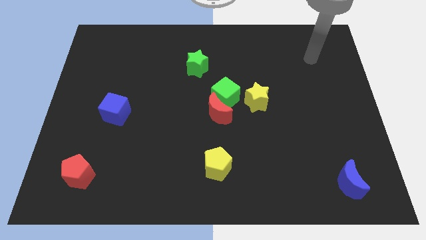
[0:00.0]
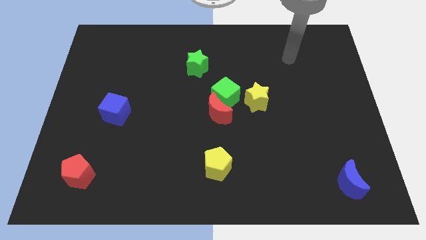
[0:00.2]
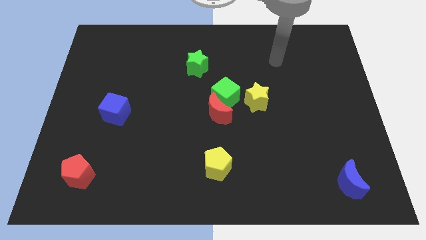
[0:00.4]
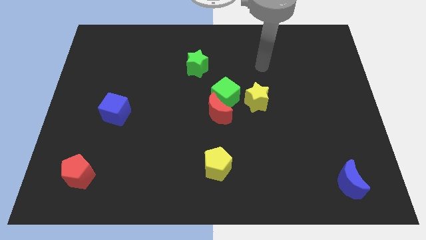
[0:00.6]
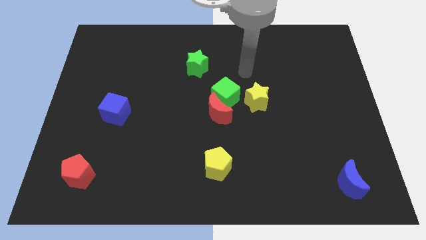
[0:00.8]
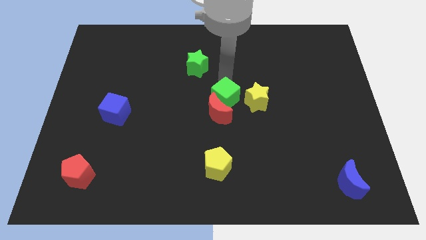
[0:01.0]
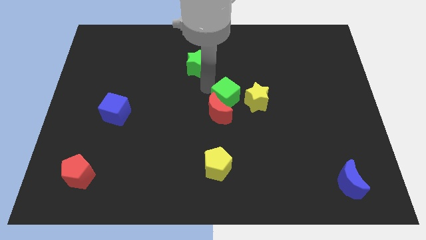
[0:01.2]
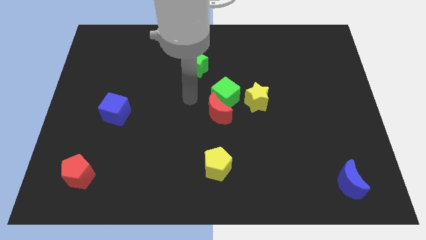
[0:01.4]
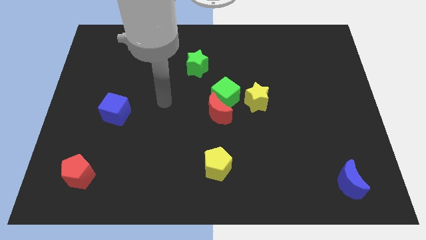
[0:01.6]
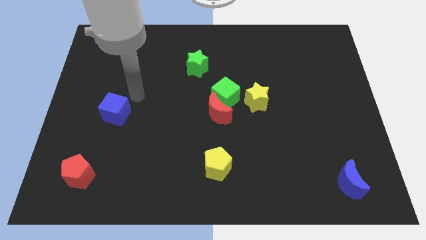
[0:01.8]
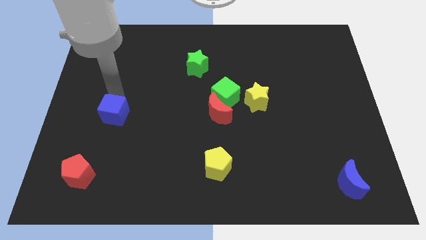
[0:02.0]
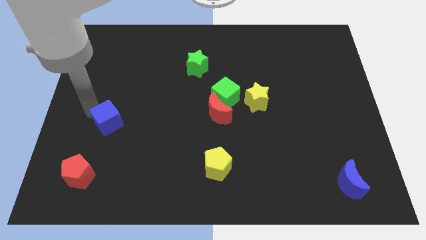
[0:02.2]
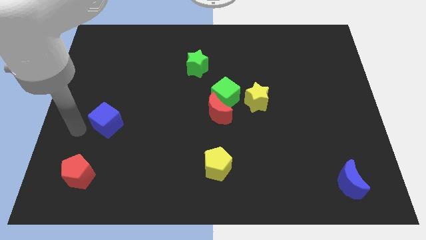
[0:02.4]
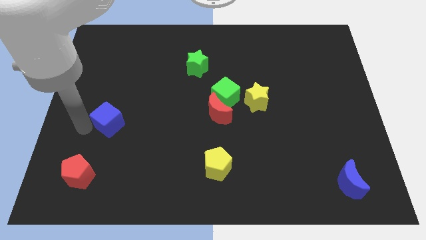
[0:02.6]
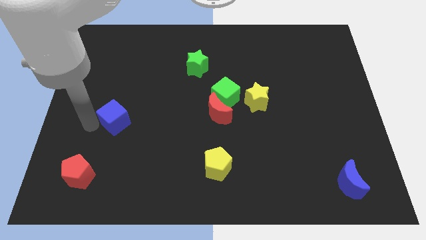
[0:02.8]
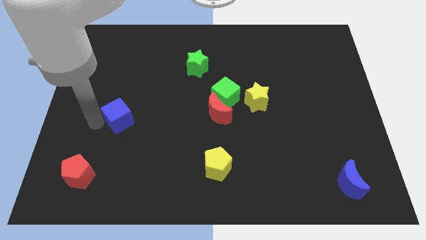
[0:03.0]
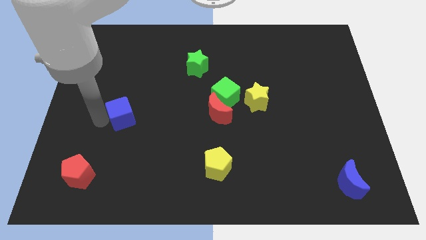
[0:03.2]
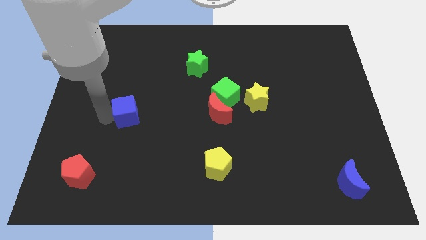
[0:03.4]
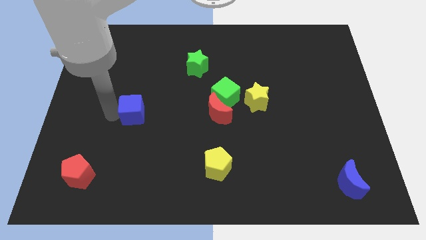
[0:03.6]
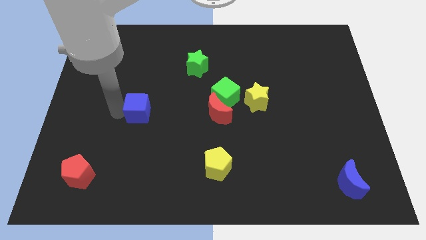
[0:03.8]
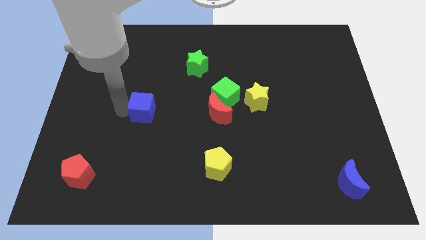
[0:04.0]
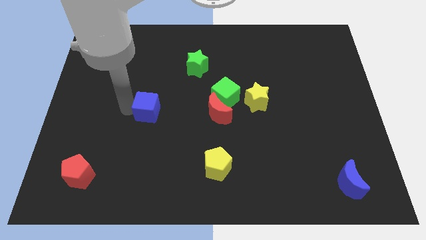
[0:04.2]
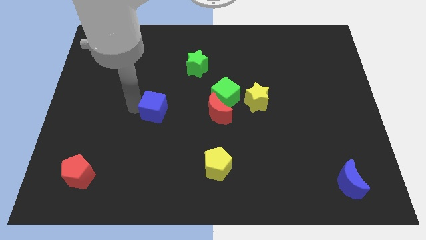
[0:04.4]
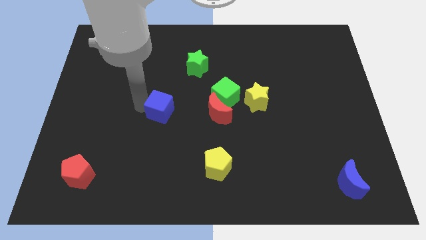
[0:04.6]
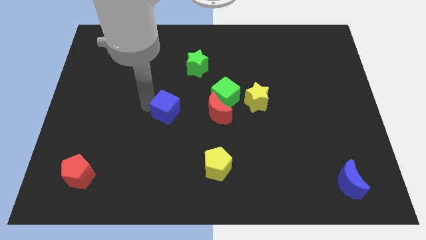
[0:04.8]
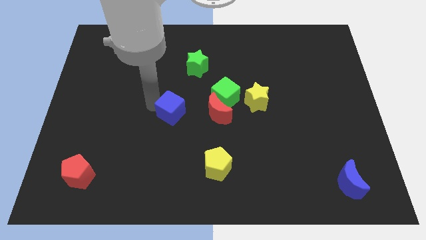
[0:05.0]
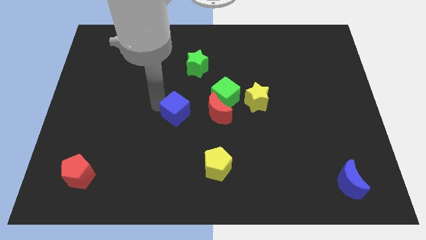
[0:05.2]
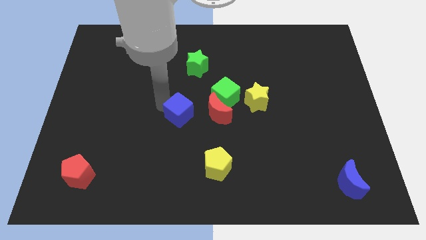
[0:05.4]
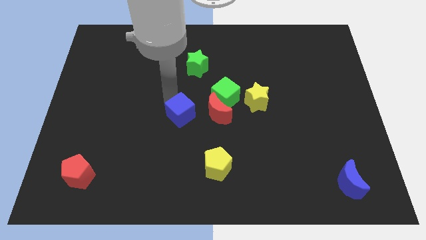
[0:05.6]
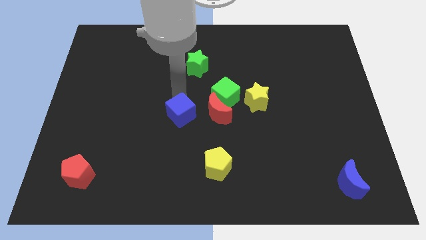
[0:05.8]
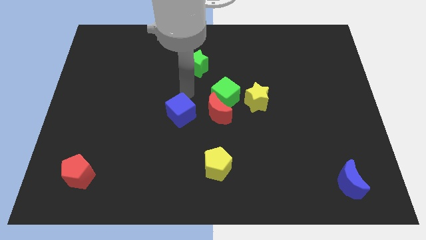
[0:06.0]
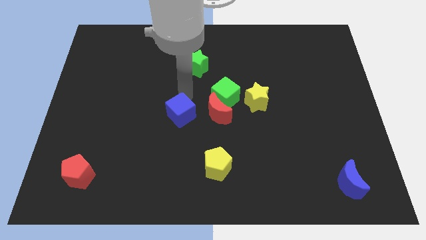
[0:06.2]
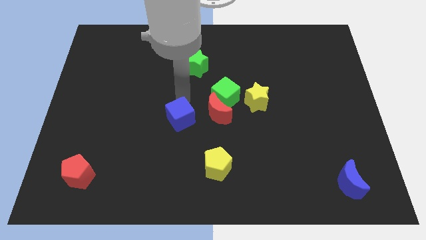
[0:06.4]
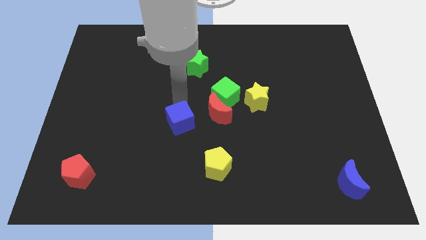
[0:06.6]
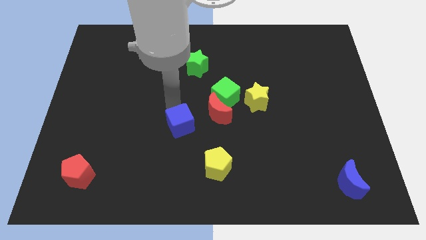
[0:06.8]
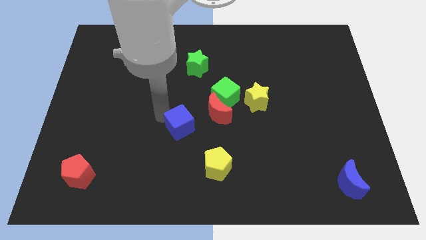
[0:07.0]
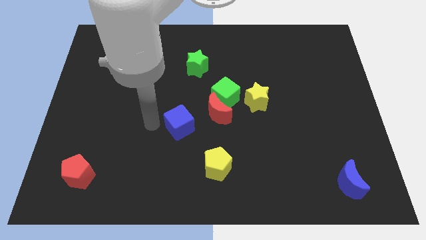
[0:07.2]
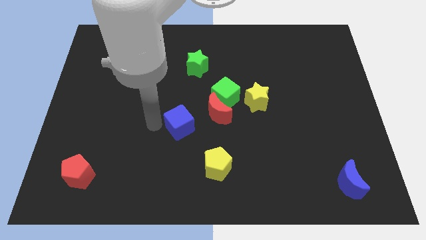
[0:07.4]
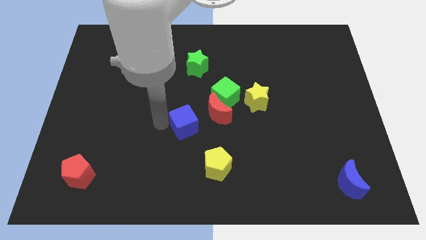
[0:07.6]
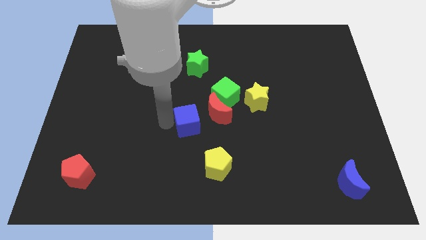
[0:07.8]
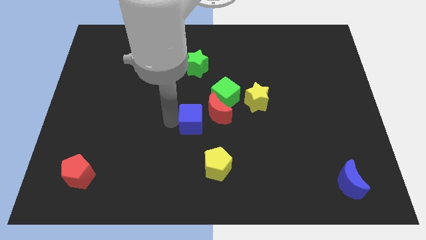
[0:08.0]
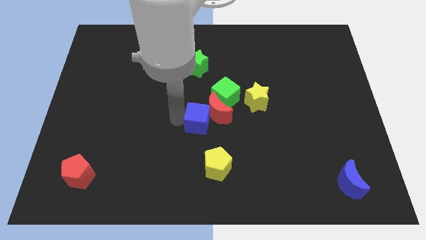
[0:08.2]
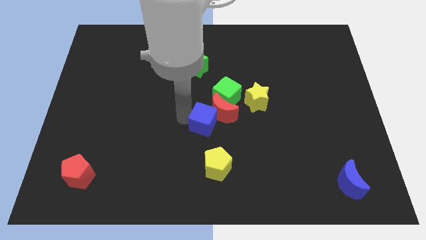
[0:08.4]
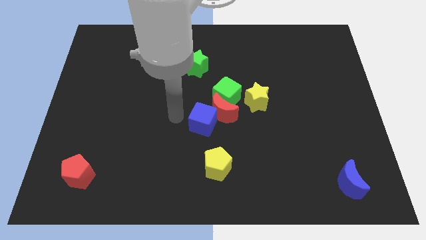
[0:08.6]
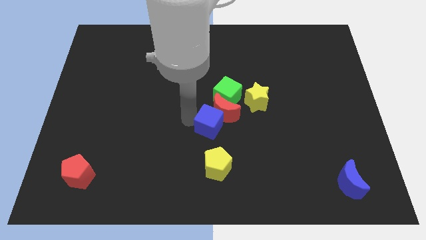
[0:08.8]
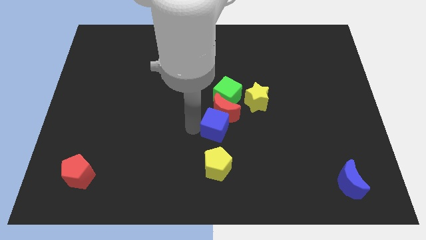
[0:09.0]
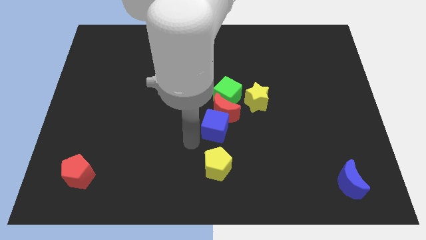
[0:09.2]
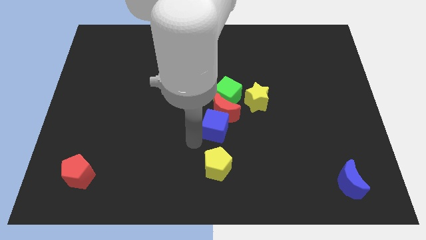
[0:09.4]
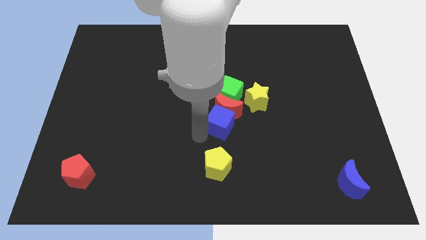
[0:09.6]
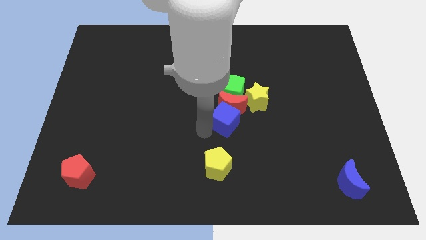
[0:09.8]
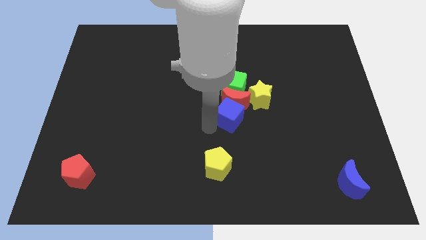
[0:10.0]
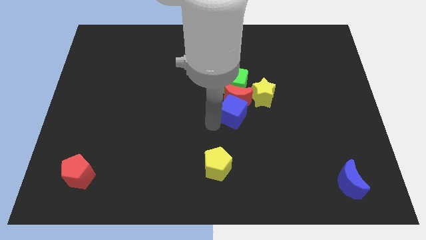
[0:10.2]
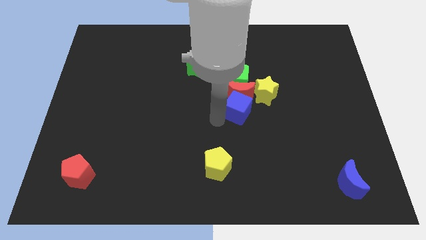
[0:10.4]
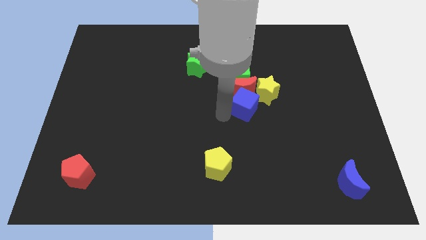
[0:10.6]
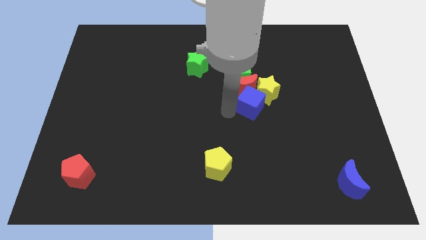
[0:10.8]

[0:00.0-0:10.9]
move the blue cube towards the yellow star

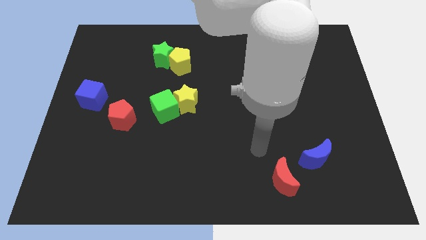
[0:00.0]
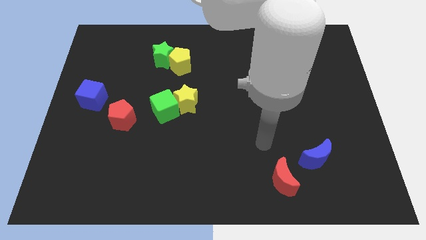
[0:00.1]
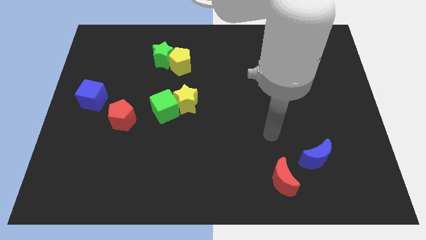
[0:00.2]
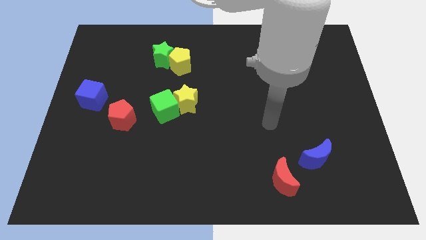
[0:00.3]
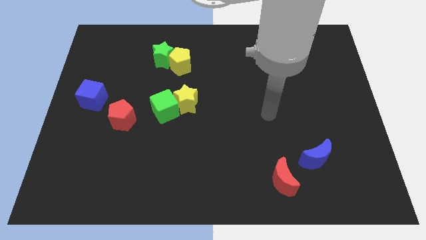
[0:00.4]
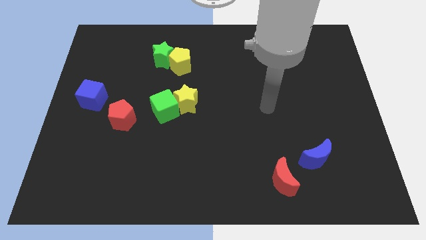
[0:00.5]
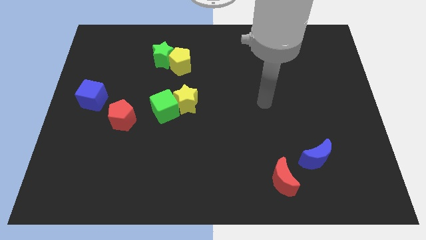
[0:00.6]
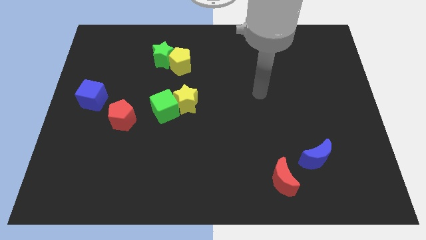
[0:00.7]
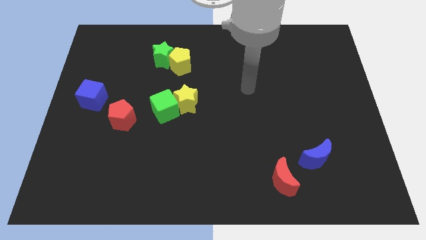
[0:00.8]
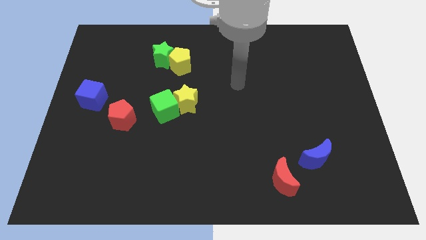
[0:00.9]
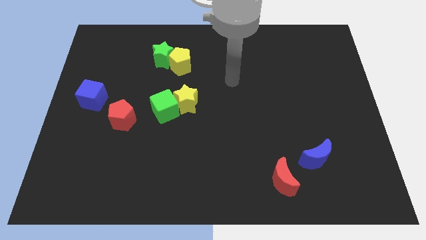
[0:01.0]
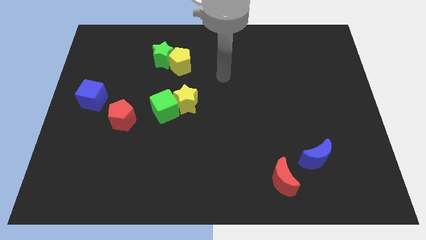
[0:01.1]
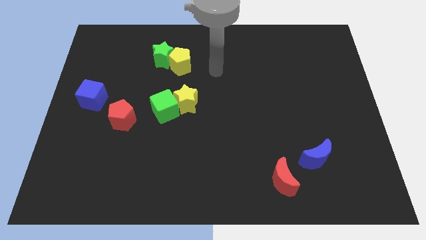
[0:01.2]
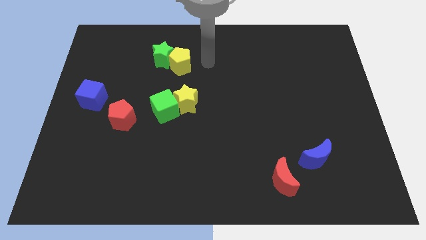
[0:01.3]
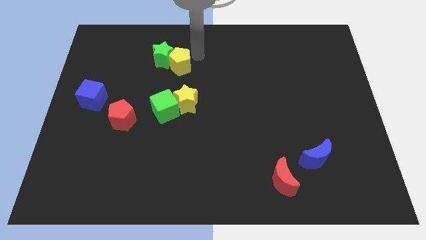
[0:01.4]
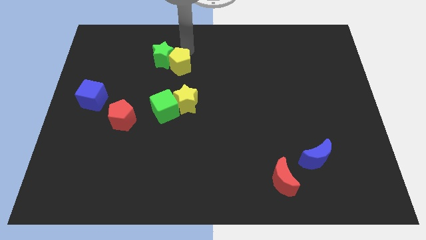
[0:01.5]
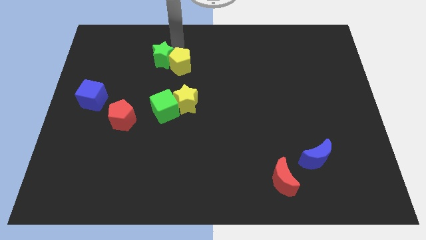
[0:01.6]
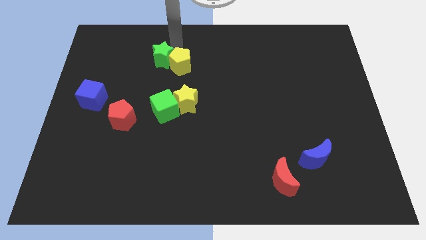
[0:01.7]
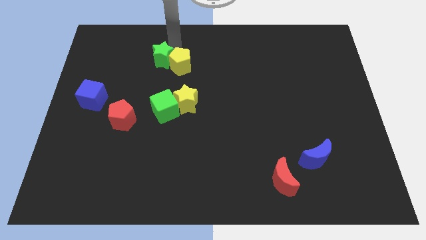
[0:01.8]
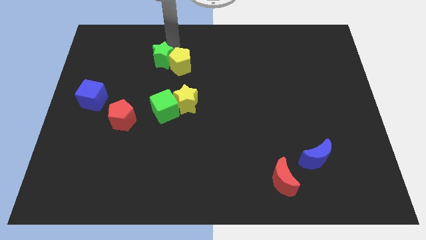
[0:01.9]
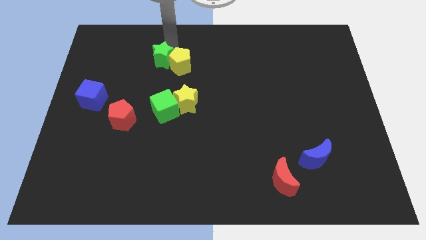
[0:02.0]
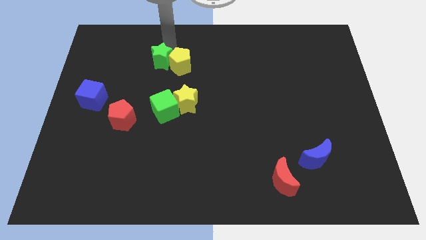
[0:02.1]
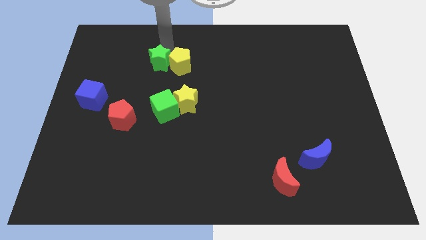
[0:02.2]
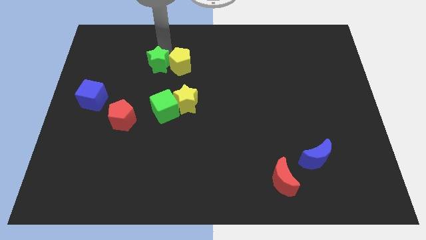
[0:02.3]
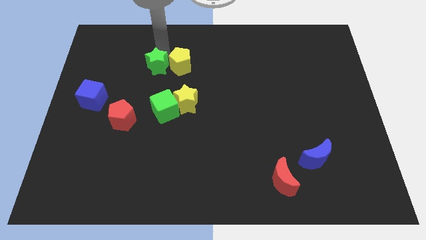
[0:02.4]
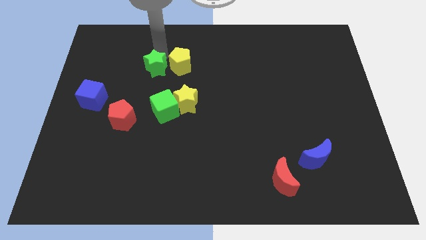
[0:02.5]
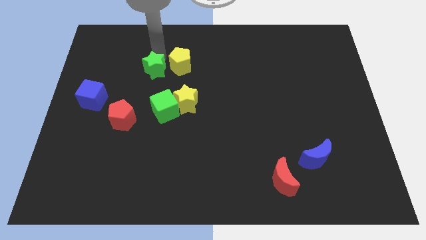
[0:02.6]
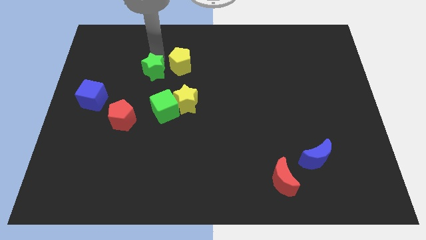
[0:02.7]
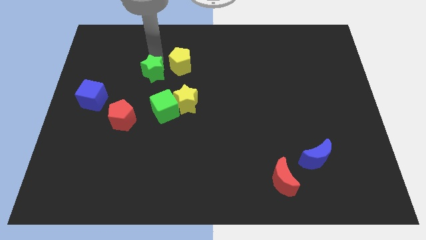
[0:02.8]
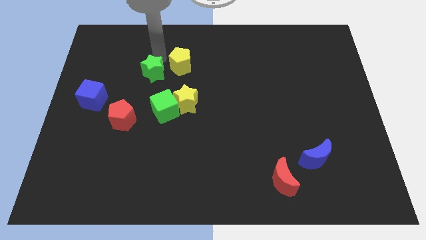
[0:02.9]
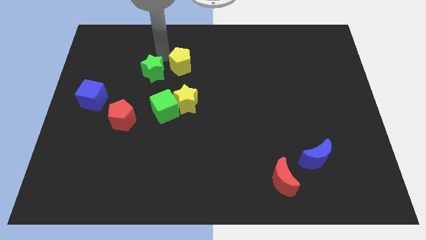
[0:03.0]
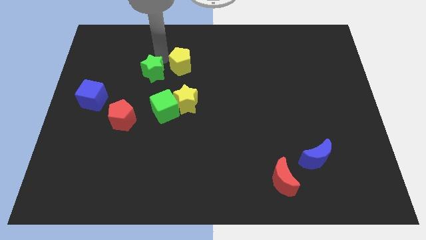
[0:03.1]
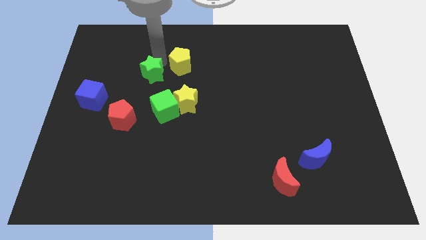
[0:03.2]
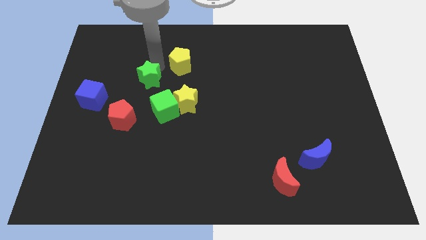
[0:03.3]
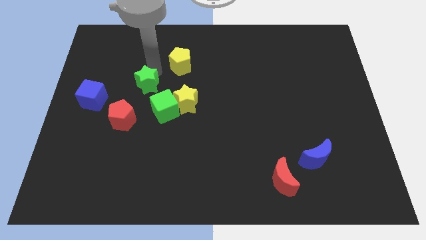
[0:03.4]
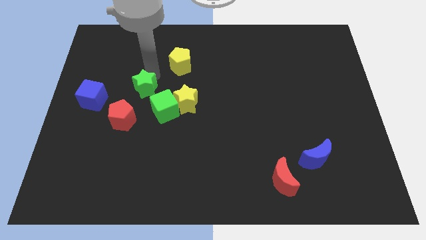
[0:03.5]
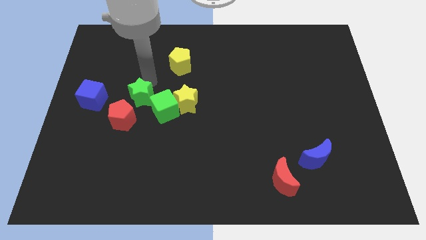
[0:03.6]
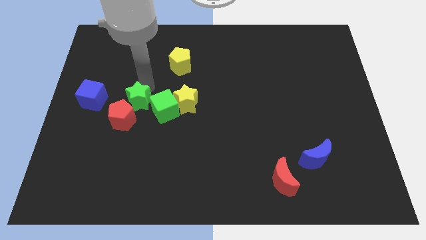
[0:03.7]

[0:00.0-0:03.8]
put the green star towards the red pentagon
